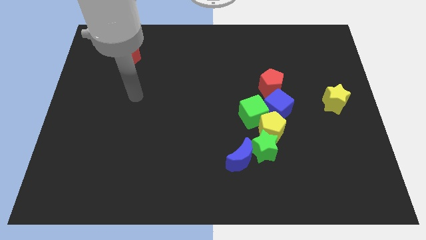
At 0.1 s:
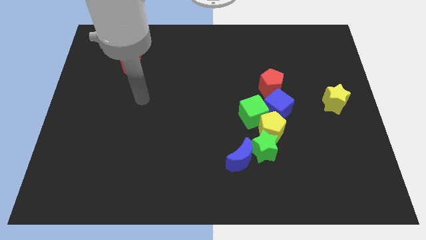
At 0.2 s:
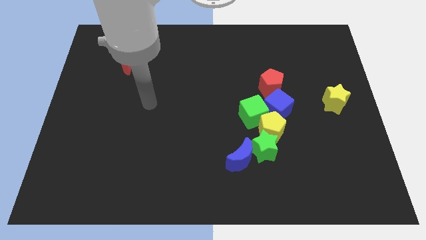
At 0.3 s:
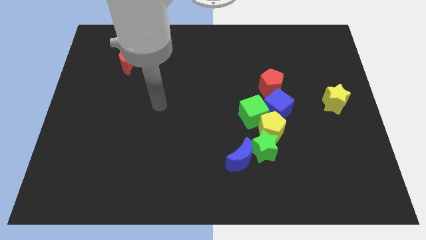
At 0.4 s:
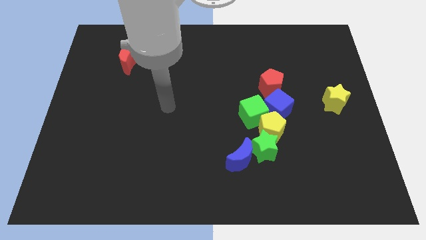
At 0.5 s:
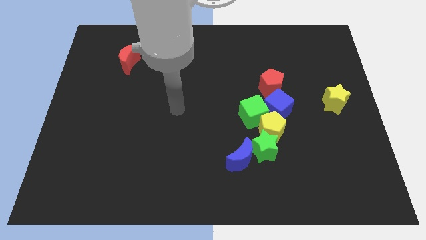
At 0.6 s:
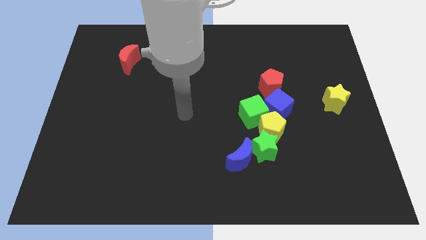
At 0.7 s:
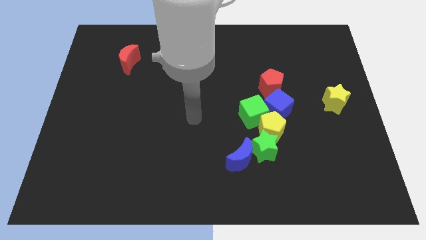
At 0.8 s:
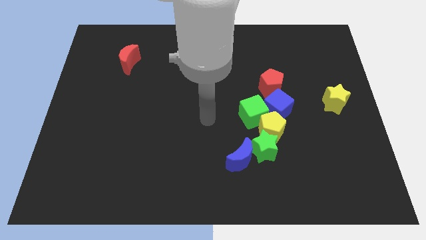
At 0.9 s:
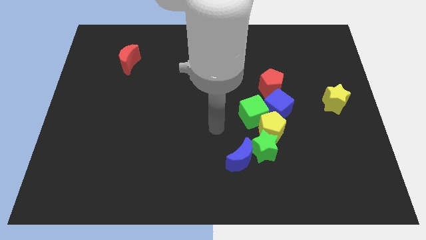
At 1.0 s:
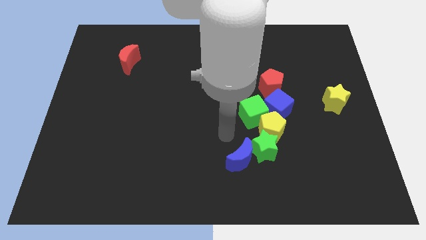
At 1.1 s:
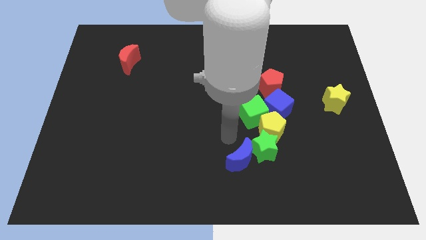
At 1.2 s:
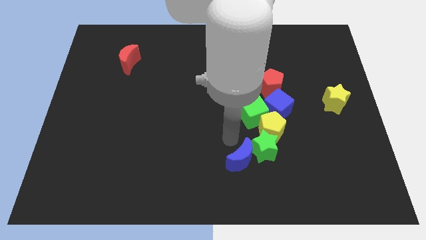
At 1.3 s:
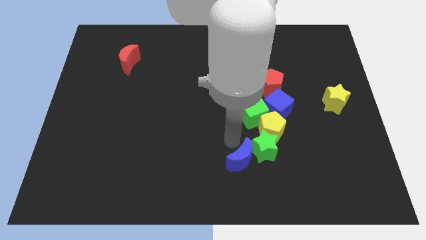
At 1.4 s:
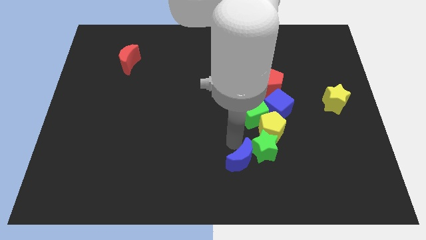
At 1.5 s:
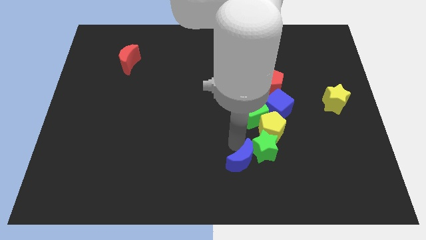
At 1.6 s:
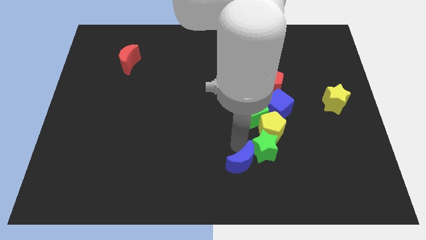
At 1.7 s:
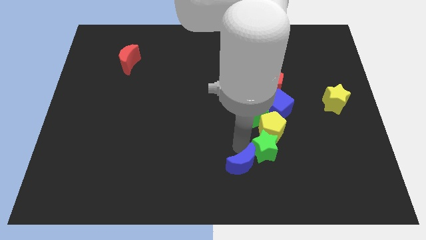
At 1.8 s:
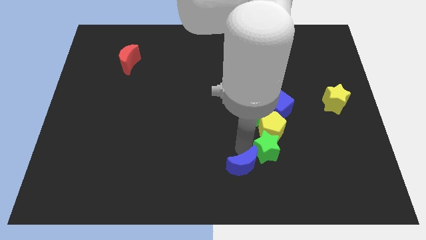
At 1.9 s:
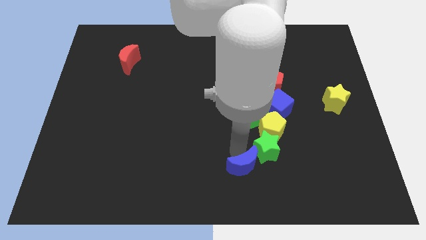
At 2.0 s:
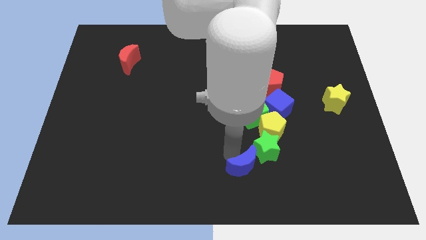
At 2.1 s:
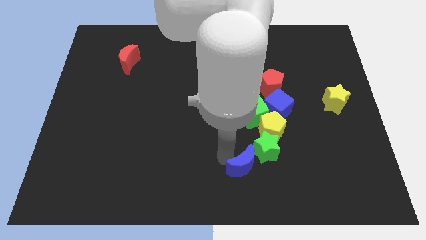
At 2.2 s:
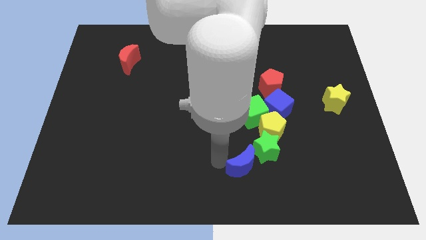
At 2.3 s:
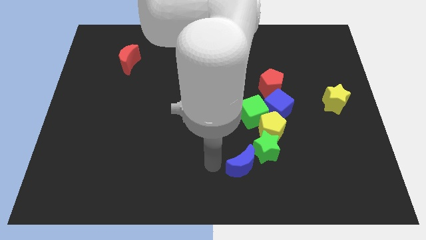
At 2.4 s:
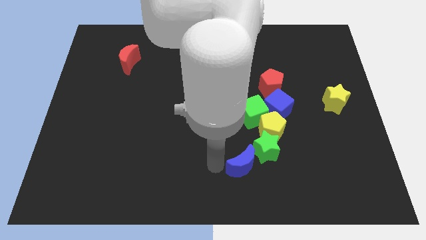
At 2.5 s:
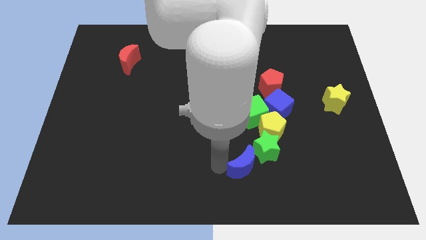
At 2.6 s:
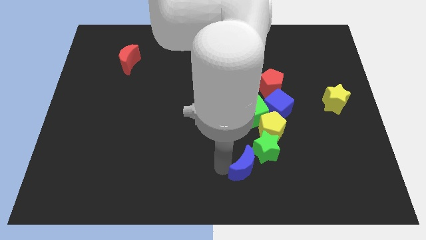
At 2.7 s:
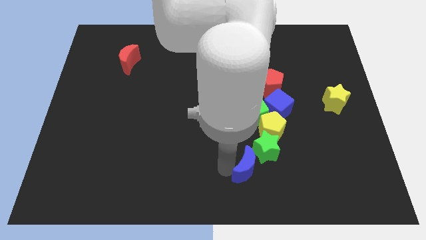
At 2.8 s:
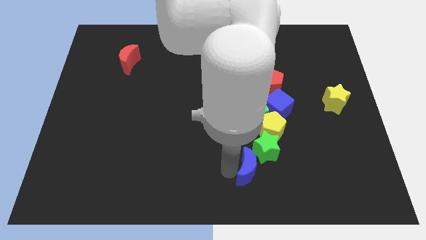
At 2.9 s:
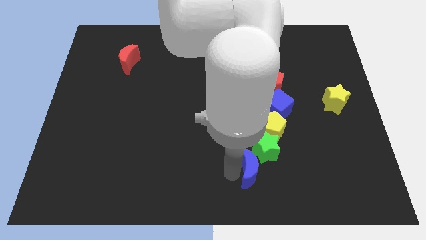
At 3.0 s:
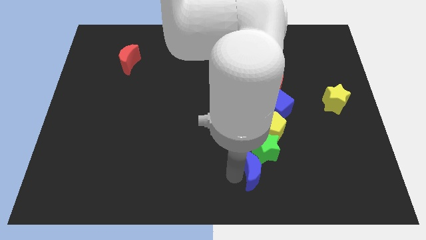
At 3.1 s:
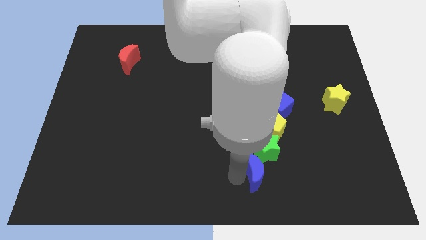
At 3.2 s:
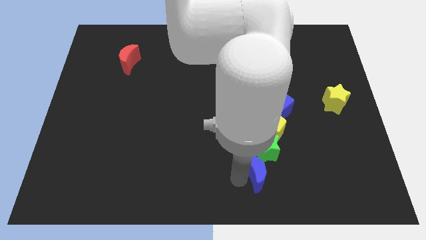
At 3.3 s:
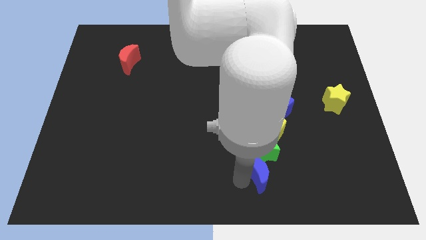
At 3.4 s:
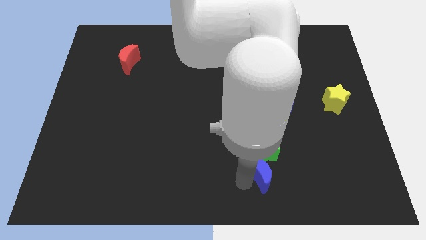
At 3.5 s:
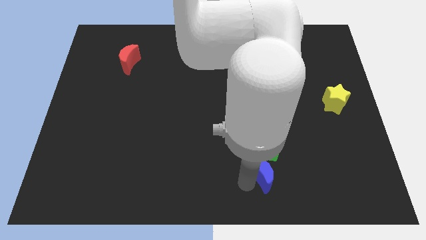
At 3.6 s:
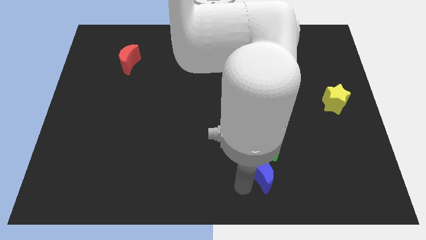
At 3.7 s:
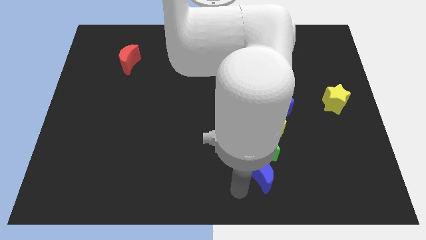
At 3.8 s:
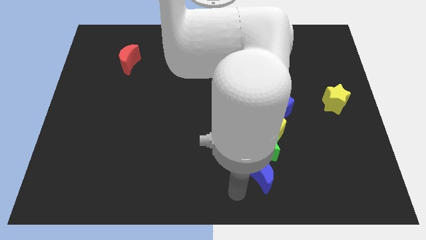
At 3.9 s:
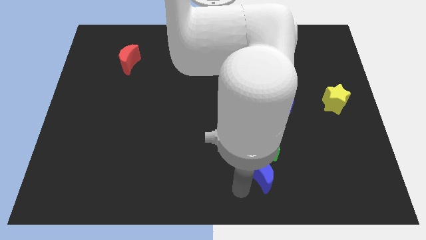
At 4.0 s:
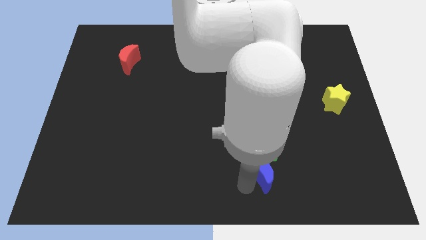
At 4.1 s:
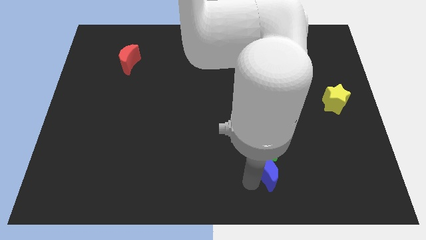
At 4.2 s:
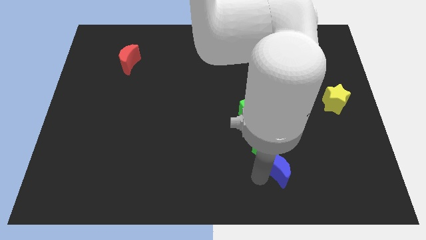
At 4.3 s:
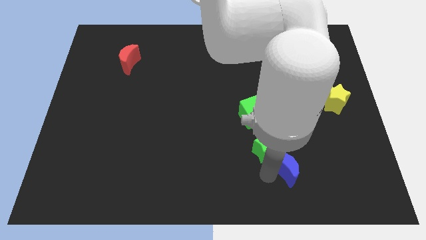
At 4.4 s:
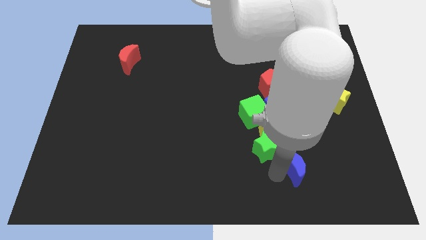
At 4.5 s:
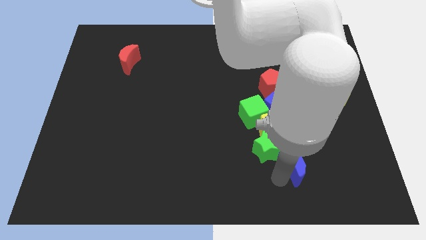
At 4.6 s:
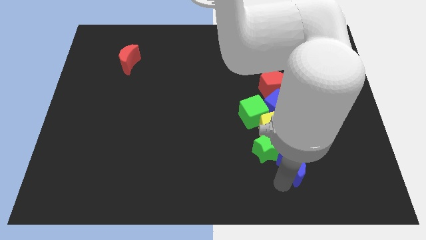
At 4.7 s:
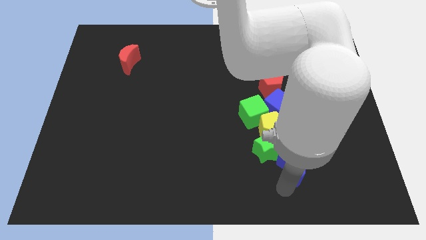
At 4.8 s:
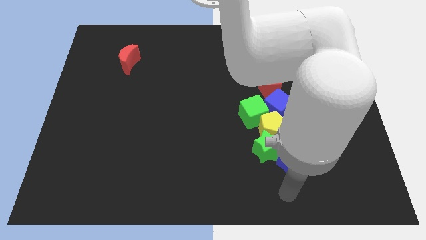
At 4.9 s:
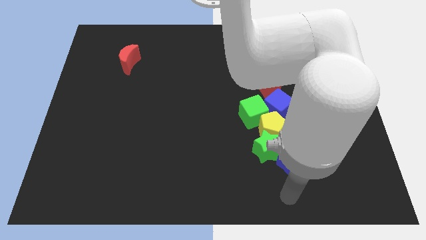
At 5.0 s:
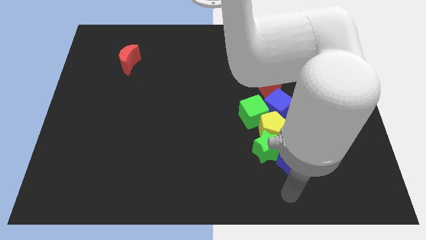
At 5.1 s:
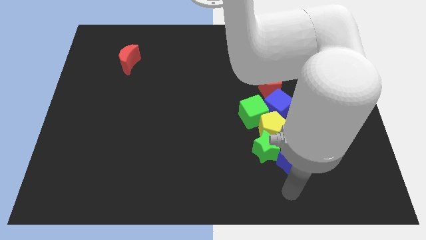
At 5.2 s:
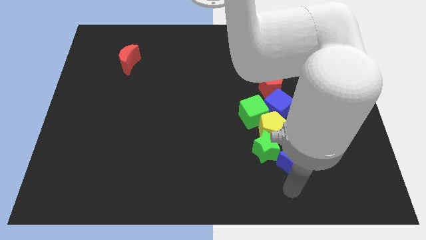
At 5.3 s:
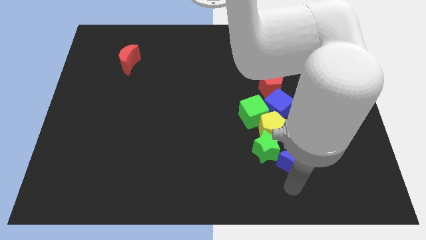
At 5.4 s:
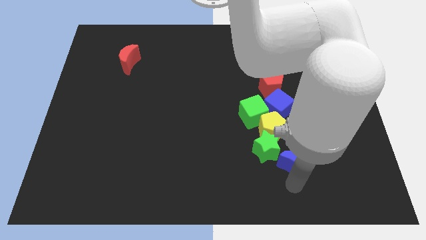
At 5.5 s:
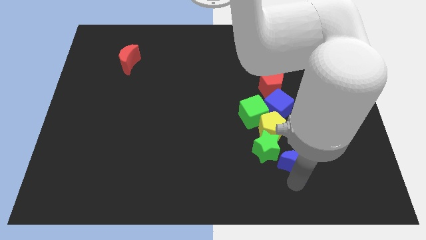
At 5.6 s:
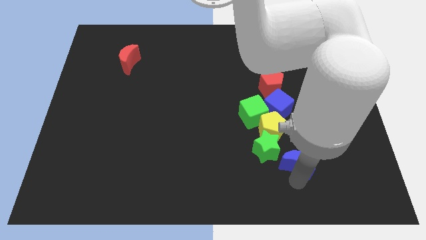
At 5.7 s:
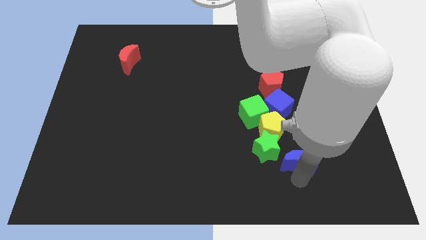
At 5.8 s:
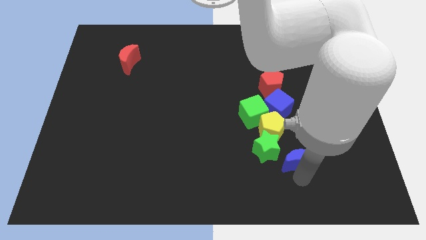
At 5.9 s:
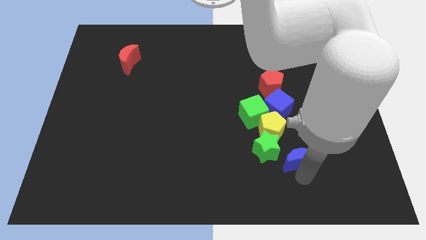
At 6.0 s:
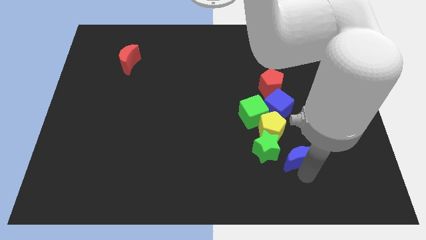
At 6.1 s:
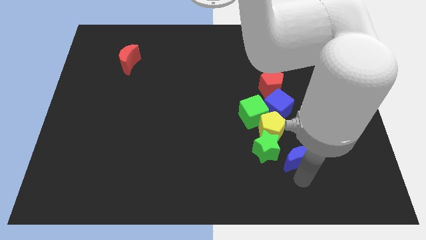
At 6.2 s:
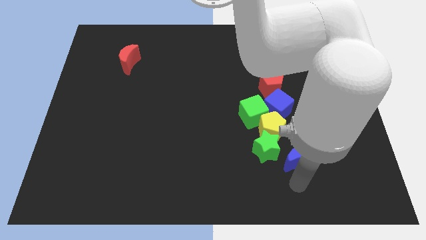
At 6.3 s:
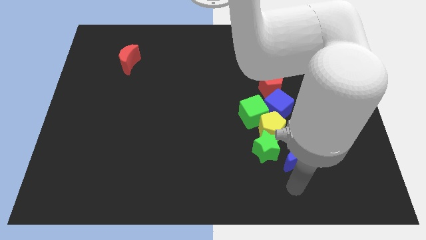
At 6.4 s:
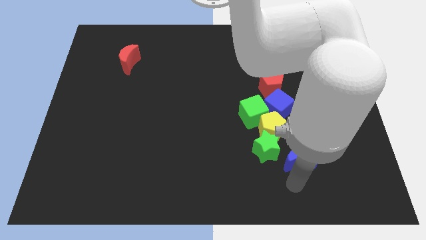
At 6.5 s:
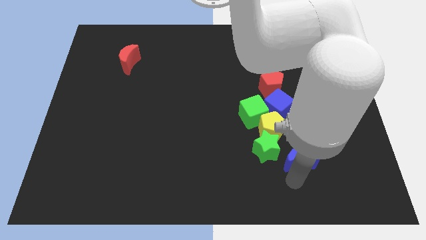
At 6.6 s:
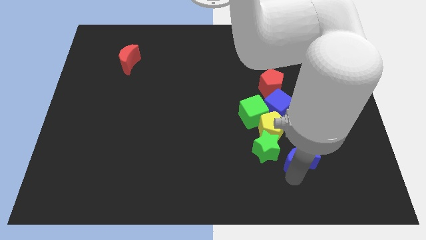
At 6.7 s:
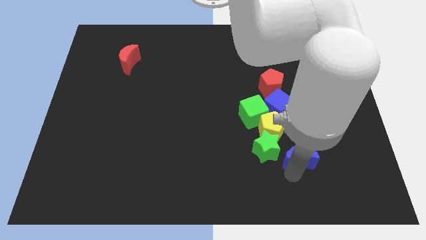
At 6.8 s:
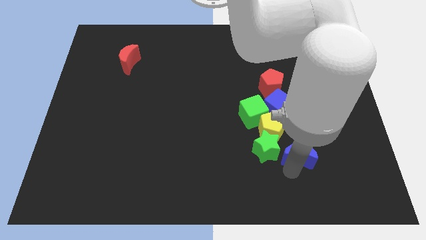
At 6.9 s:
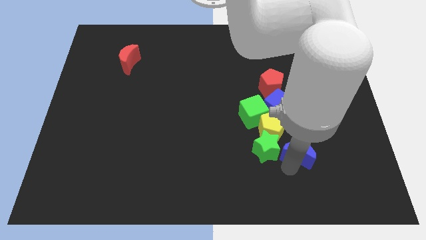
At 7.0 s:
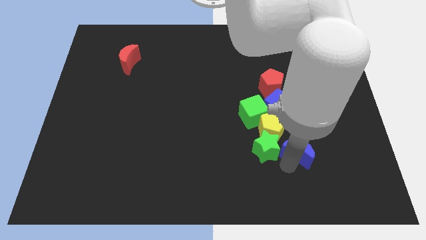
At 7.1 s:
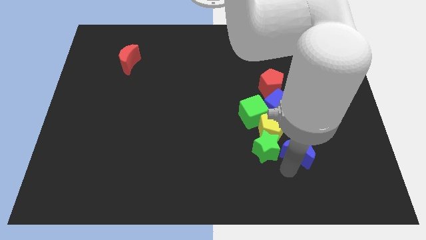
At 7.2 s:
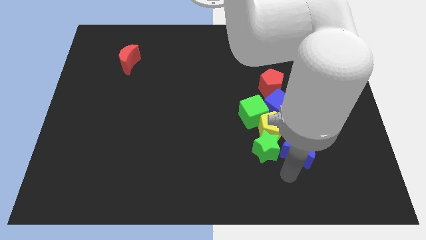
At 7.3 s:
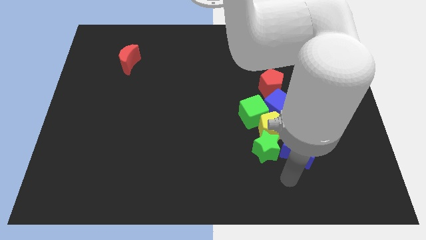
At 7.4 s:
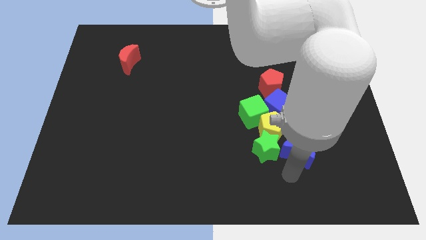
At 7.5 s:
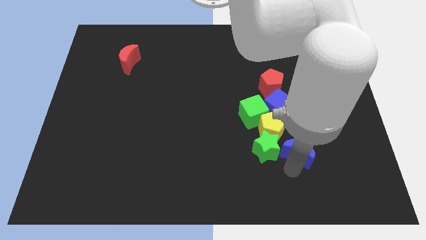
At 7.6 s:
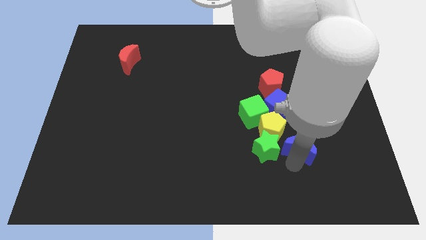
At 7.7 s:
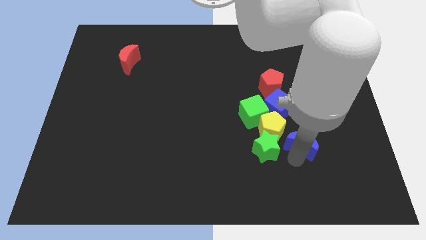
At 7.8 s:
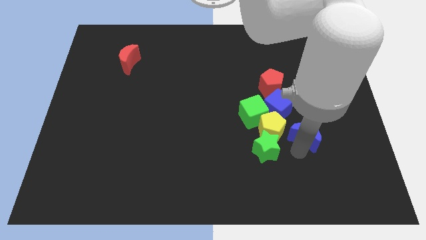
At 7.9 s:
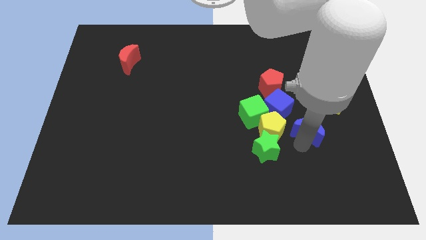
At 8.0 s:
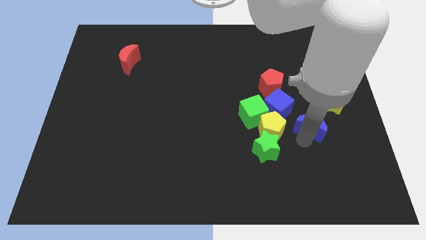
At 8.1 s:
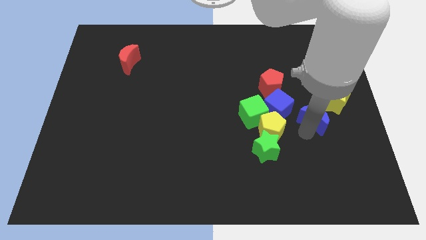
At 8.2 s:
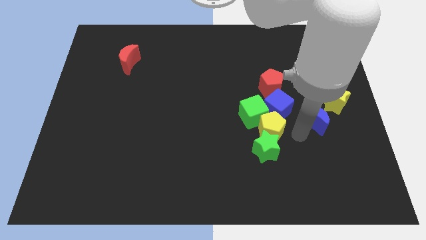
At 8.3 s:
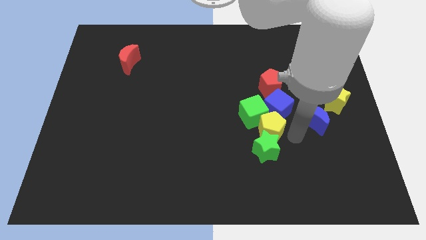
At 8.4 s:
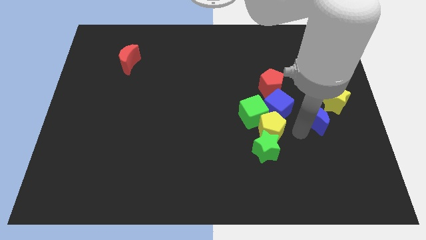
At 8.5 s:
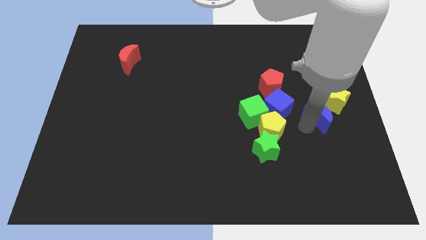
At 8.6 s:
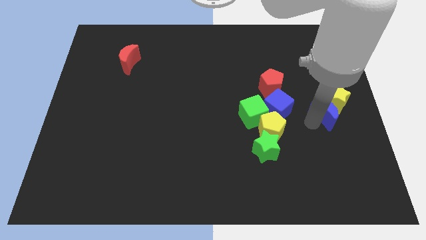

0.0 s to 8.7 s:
move the blue moon towards the yellow star
